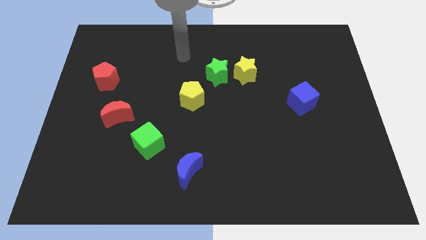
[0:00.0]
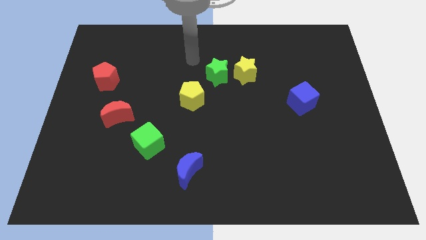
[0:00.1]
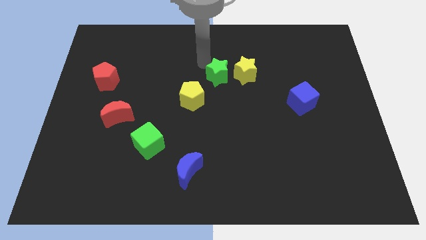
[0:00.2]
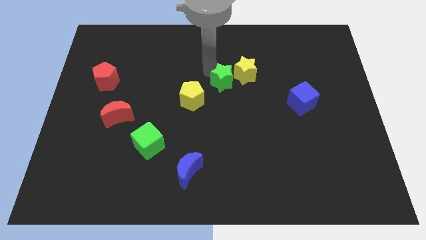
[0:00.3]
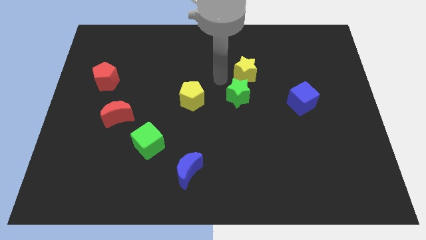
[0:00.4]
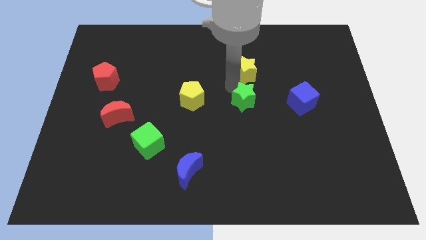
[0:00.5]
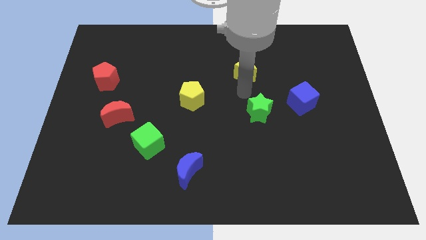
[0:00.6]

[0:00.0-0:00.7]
separate the yellow star from the green star

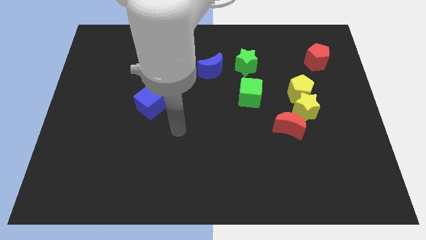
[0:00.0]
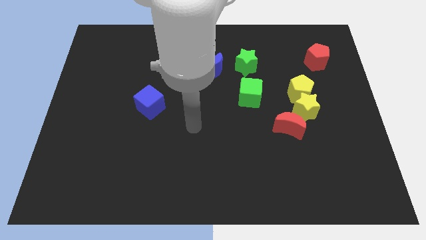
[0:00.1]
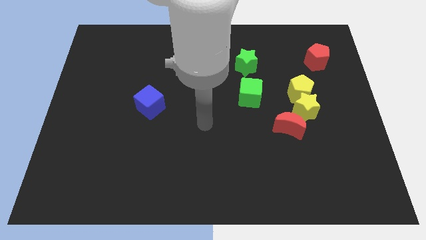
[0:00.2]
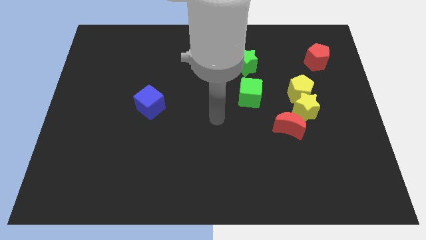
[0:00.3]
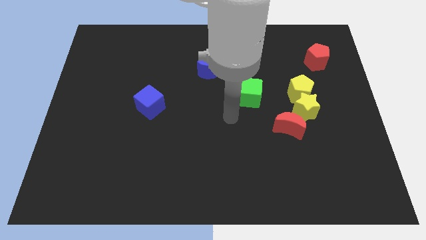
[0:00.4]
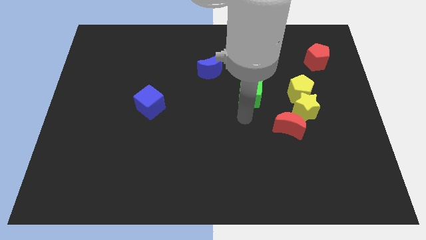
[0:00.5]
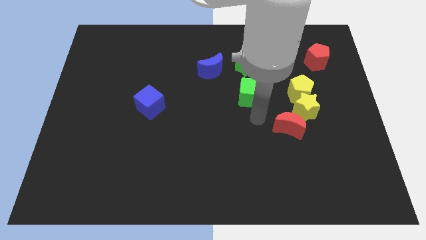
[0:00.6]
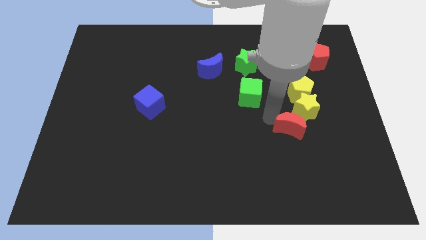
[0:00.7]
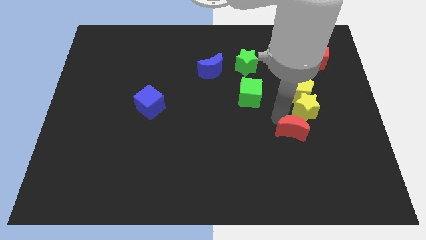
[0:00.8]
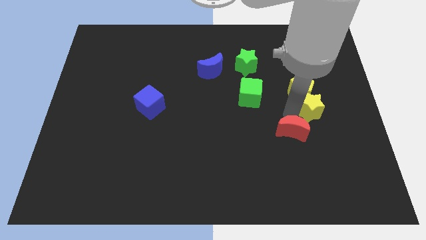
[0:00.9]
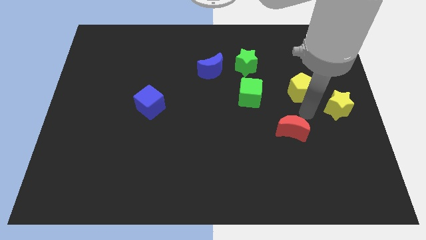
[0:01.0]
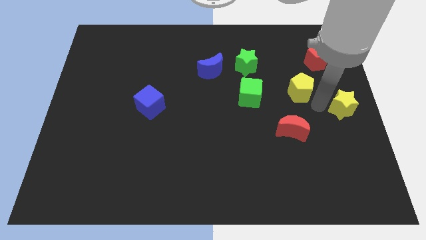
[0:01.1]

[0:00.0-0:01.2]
pull the yellow pentagon apart from the yellow star

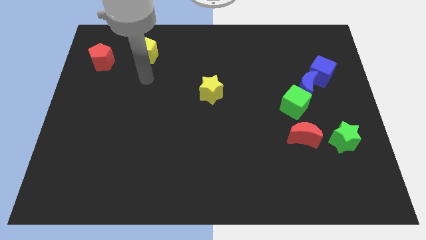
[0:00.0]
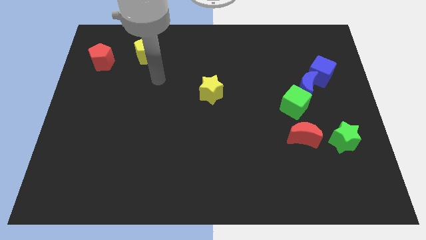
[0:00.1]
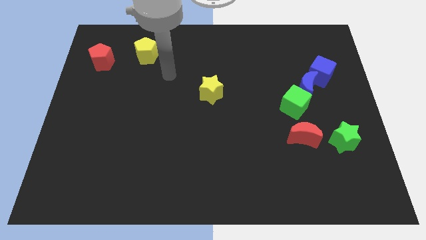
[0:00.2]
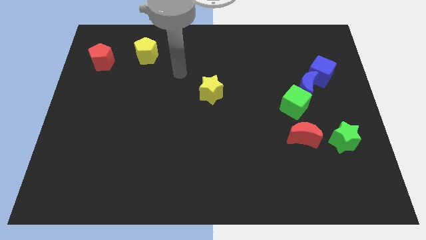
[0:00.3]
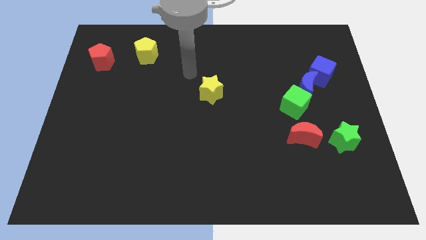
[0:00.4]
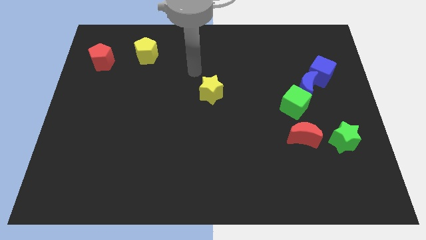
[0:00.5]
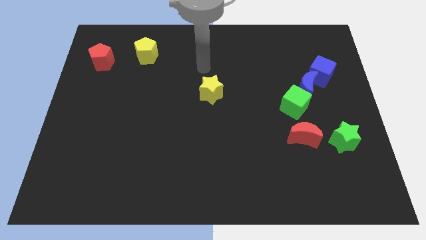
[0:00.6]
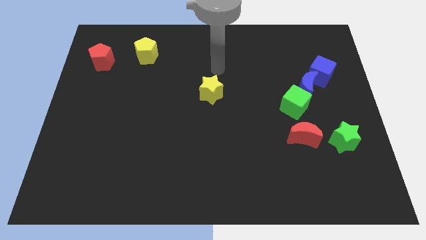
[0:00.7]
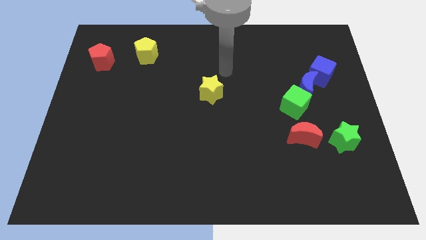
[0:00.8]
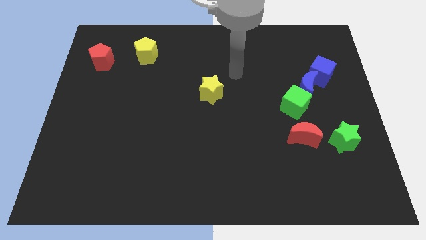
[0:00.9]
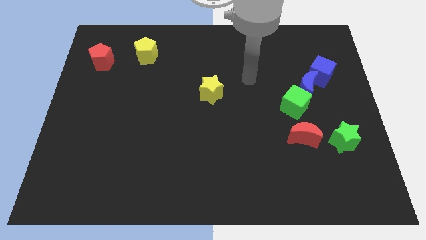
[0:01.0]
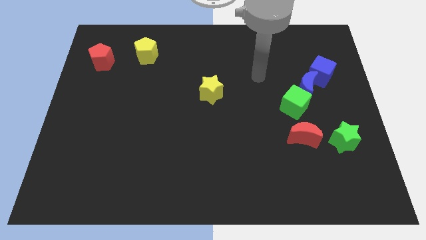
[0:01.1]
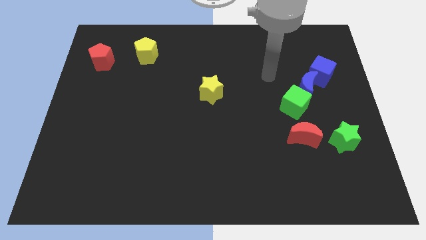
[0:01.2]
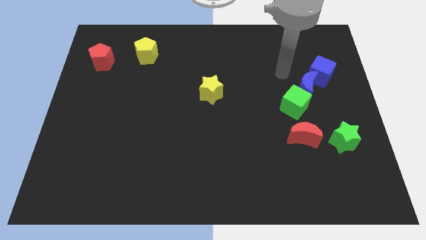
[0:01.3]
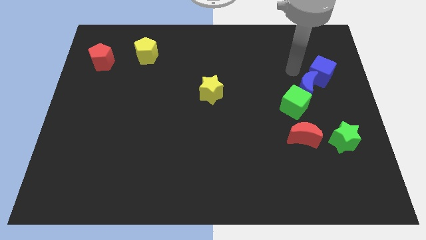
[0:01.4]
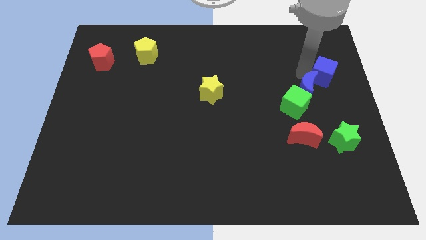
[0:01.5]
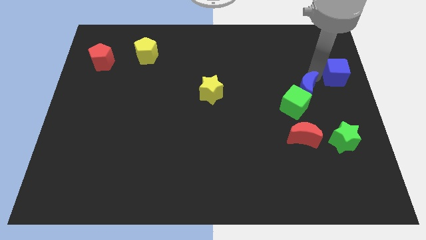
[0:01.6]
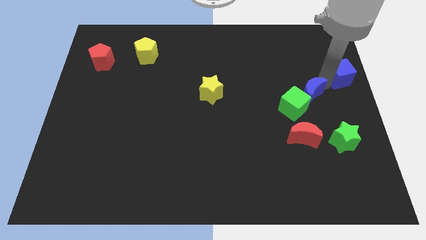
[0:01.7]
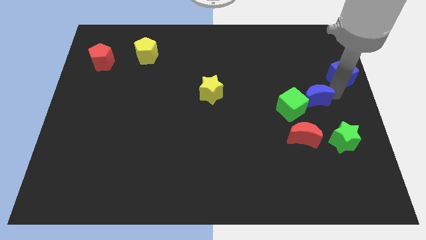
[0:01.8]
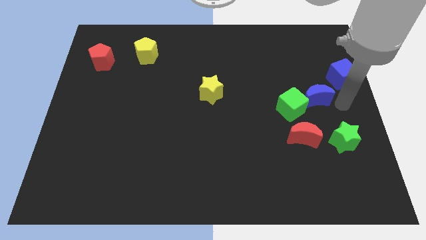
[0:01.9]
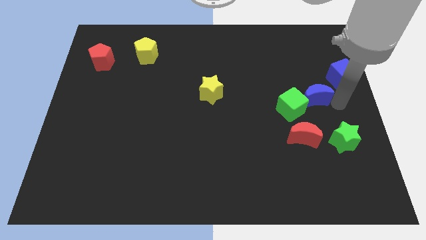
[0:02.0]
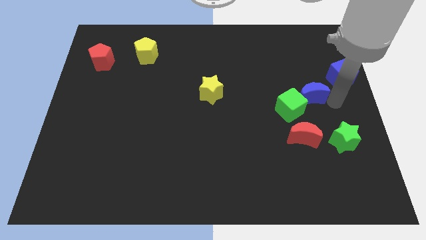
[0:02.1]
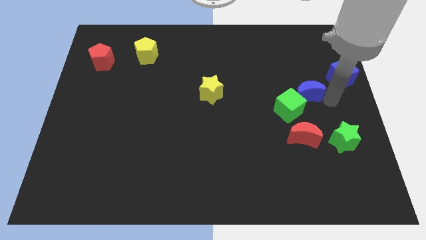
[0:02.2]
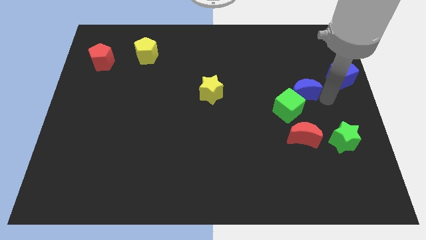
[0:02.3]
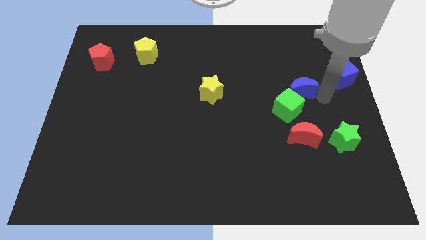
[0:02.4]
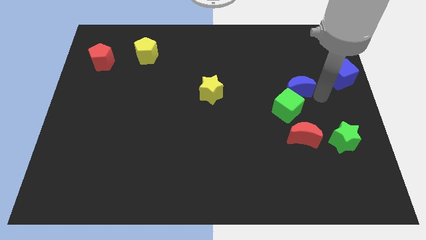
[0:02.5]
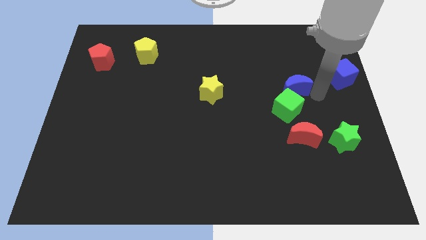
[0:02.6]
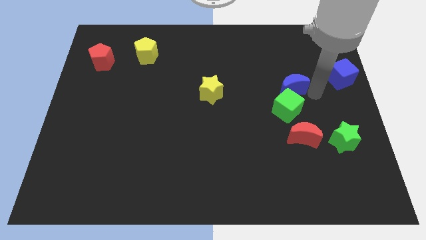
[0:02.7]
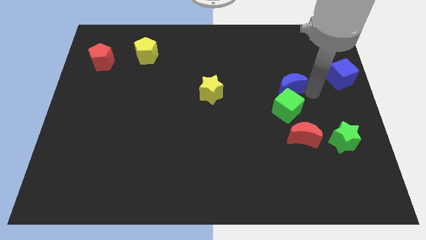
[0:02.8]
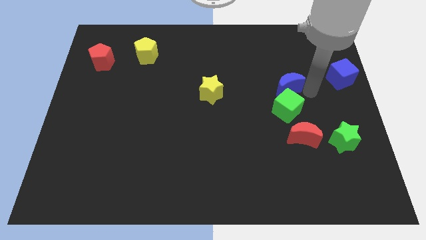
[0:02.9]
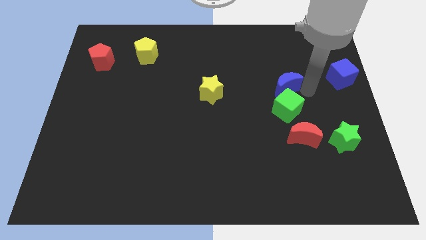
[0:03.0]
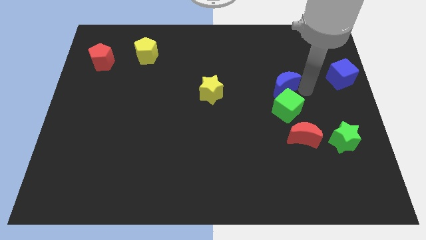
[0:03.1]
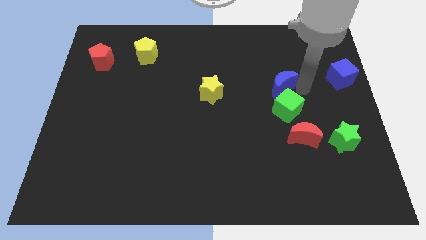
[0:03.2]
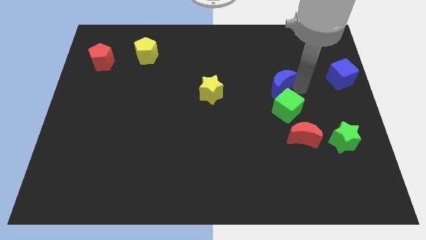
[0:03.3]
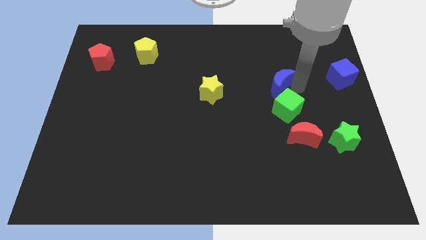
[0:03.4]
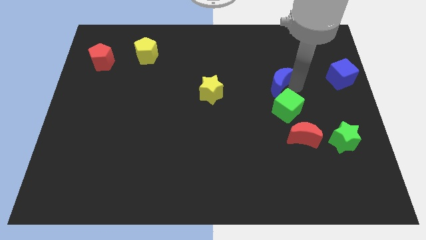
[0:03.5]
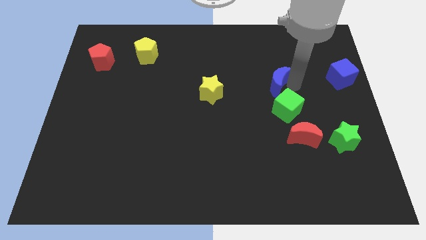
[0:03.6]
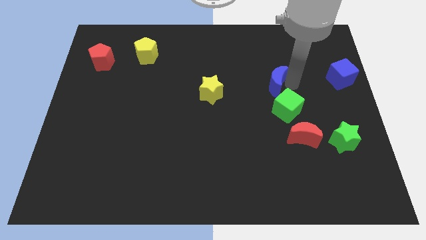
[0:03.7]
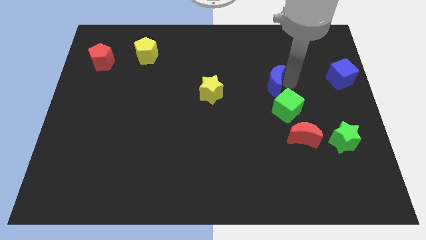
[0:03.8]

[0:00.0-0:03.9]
move the blue moon away from the green cube and blue cube

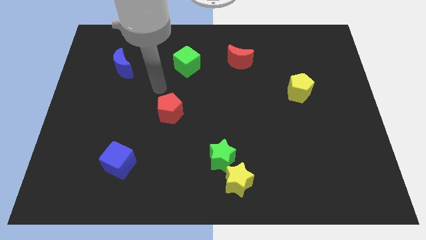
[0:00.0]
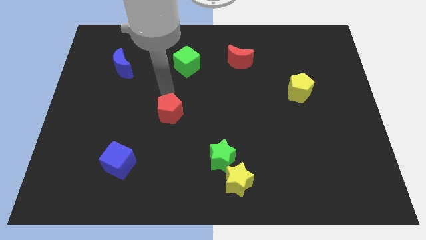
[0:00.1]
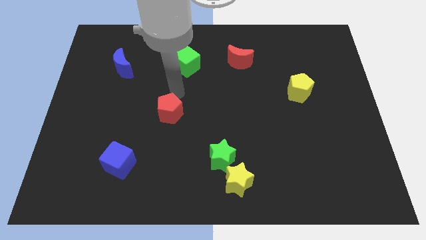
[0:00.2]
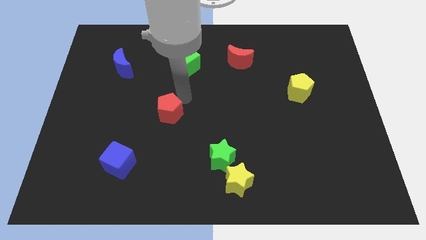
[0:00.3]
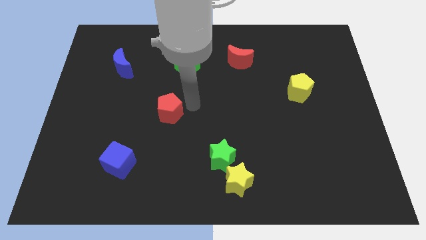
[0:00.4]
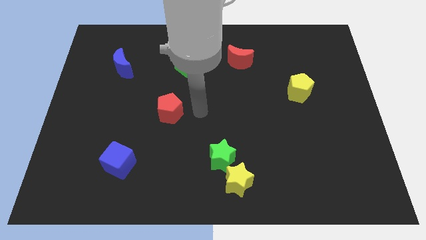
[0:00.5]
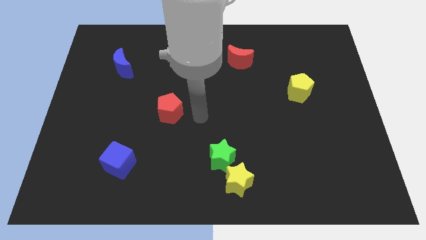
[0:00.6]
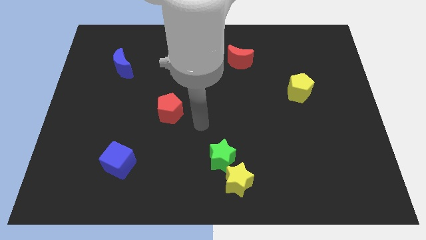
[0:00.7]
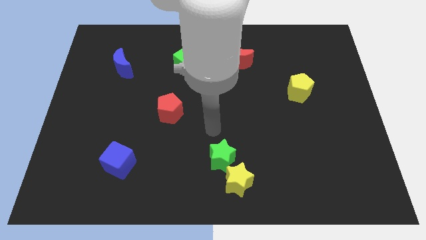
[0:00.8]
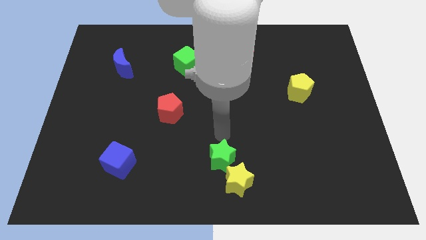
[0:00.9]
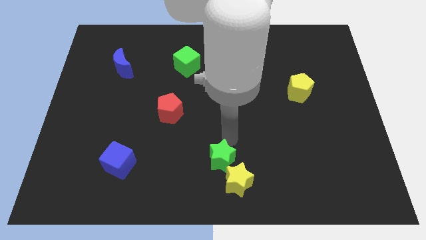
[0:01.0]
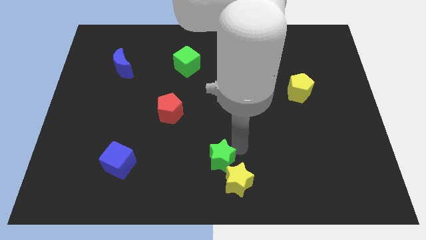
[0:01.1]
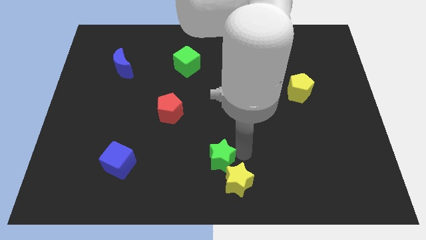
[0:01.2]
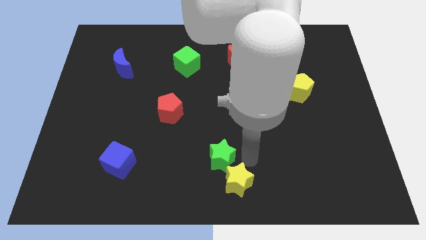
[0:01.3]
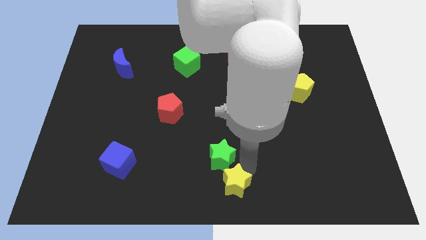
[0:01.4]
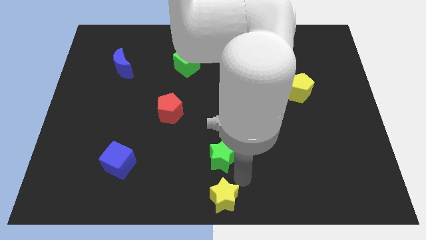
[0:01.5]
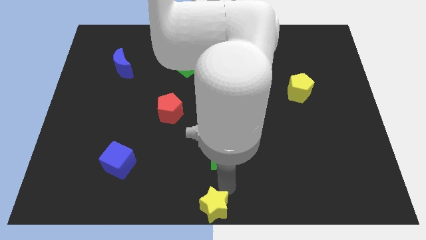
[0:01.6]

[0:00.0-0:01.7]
move the green star away from the yellow star

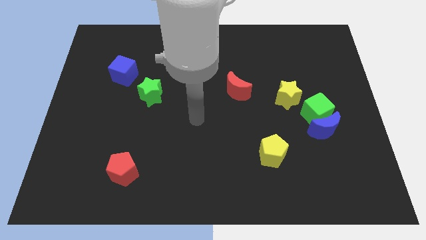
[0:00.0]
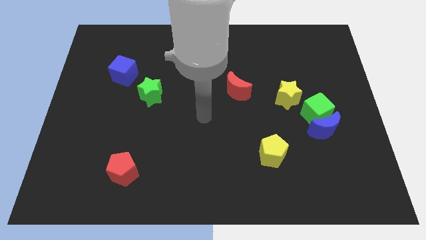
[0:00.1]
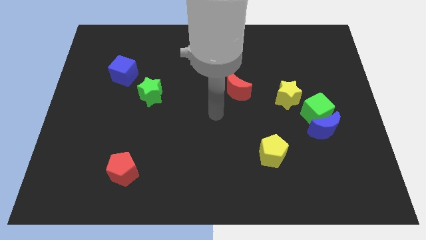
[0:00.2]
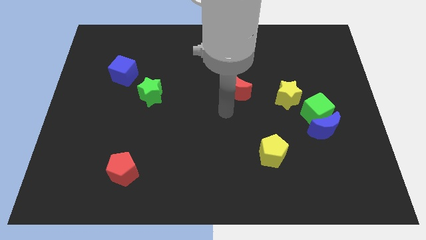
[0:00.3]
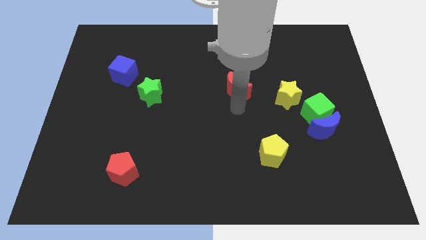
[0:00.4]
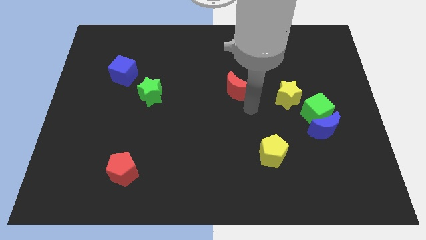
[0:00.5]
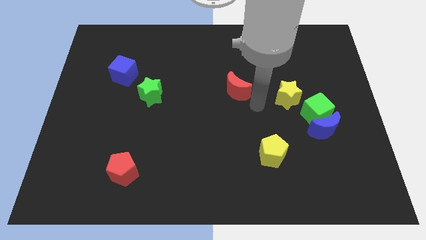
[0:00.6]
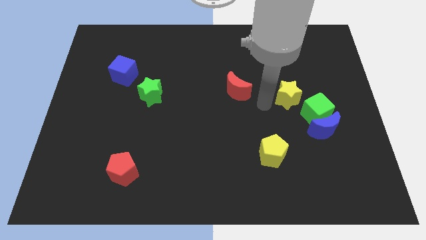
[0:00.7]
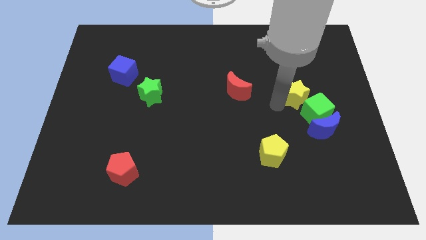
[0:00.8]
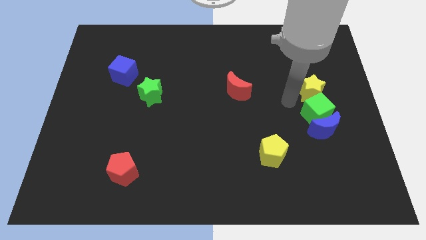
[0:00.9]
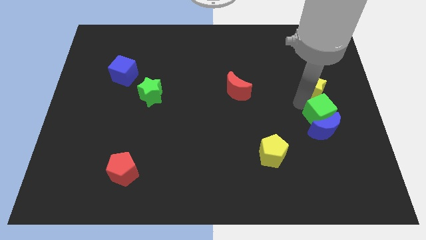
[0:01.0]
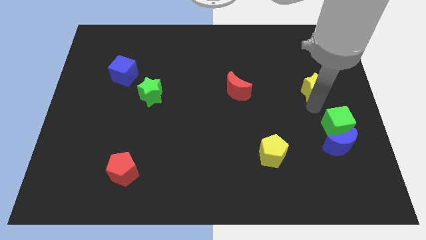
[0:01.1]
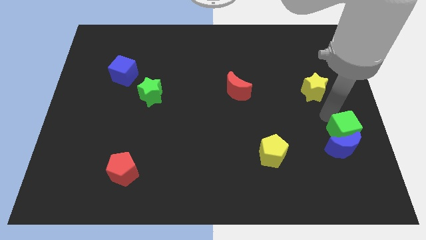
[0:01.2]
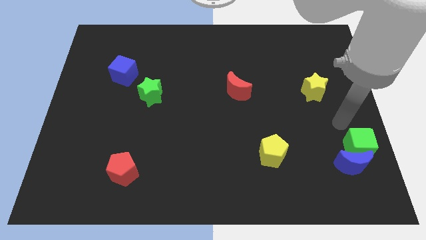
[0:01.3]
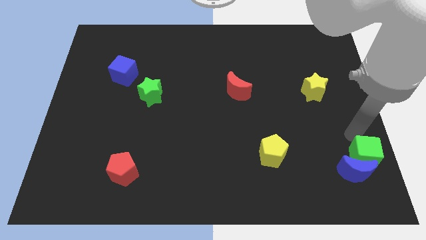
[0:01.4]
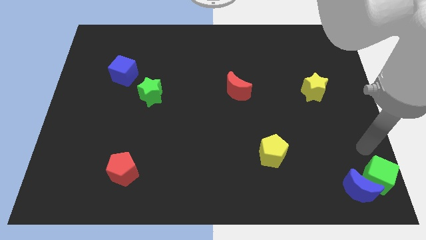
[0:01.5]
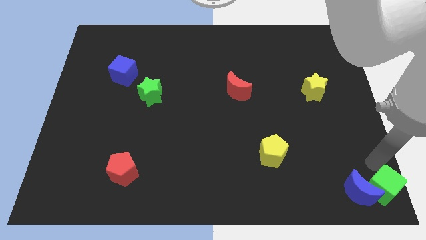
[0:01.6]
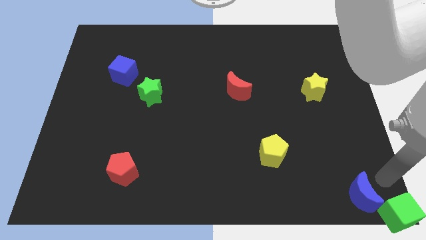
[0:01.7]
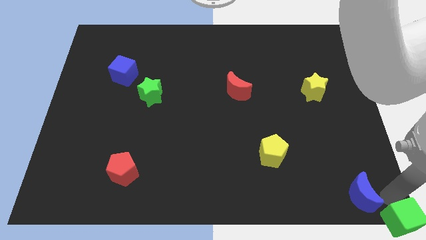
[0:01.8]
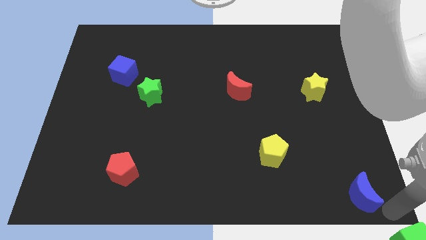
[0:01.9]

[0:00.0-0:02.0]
pull the blue moon apart from the green cube

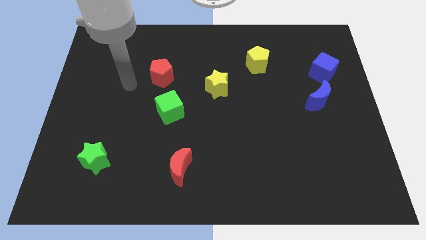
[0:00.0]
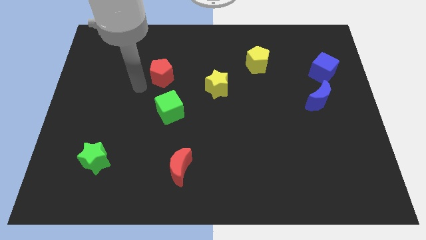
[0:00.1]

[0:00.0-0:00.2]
separate the blue moon from the blue cube
